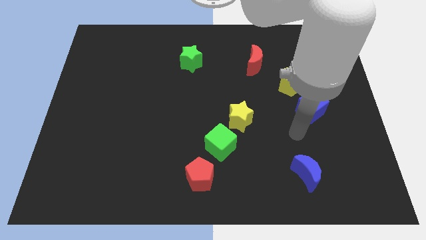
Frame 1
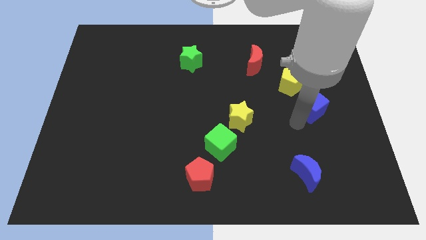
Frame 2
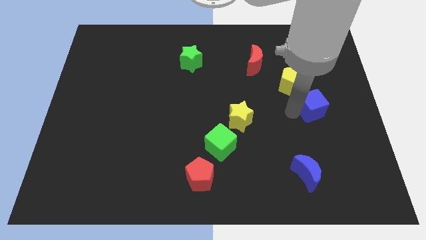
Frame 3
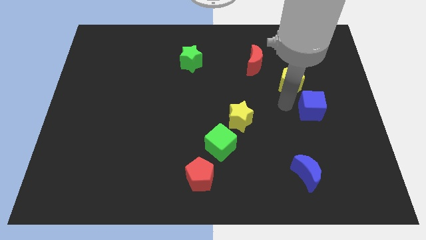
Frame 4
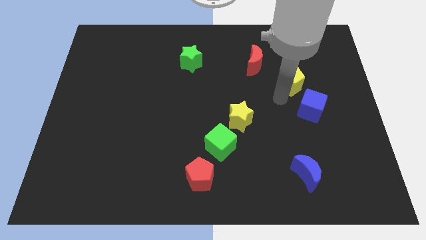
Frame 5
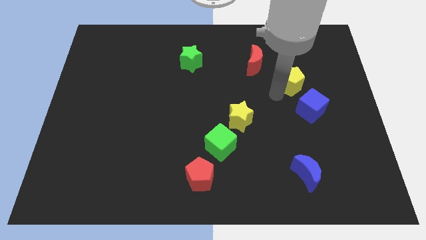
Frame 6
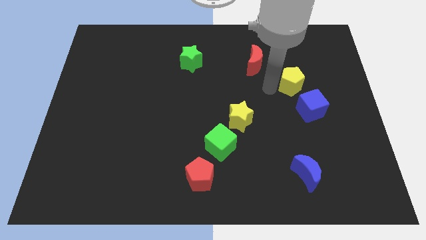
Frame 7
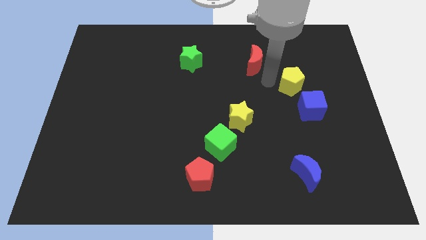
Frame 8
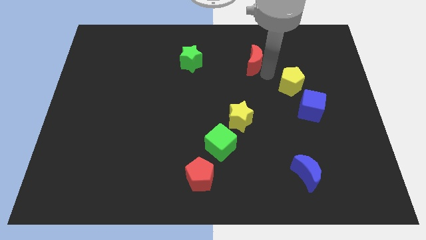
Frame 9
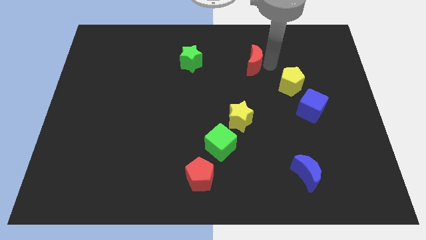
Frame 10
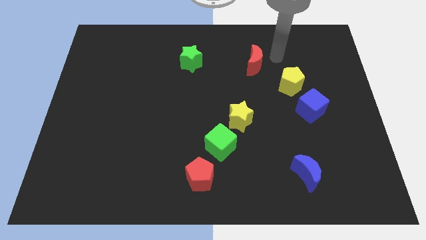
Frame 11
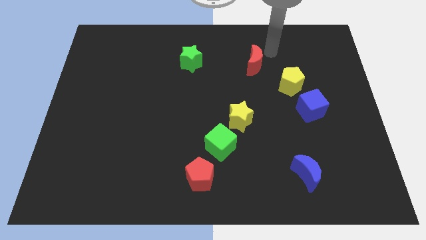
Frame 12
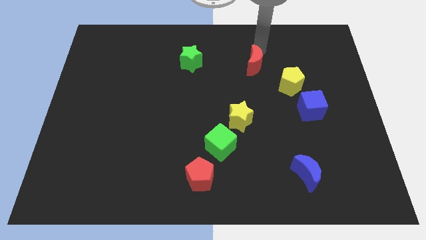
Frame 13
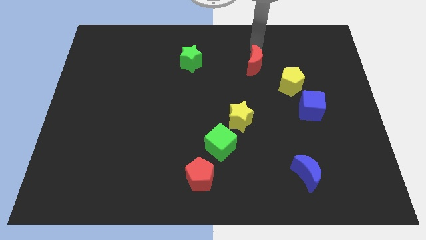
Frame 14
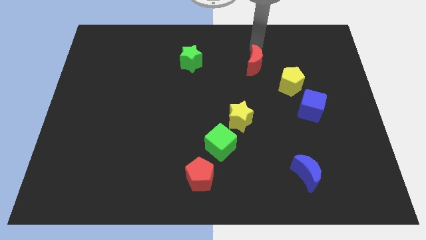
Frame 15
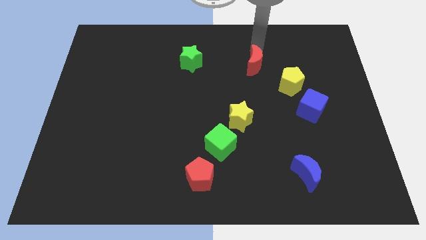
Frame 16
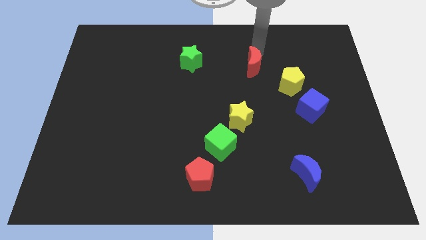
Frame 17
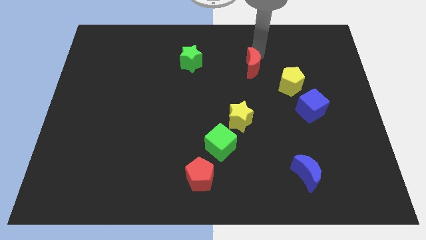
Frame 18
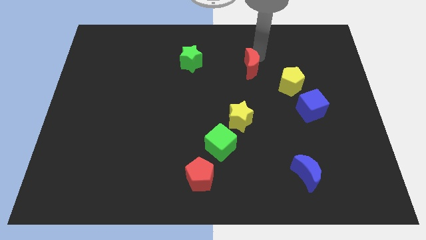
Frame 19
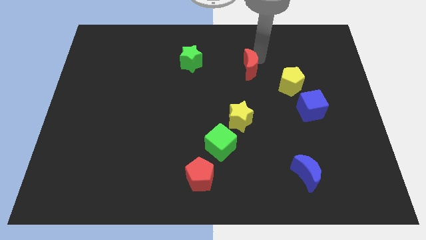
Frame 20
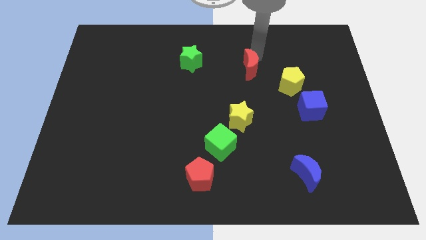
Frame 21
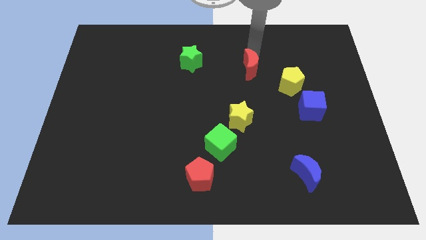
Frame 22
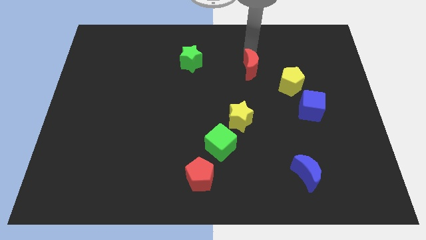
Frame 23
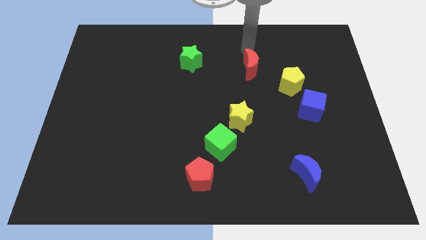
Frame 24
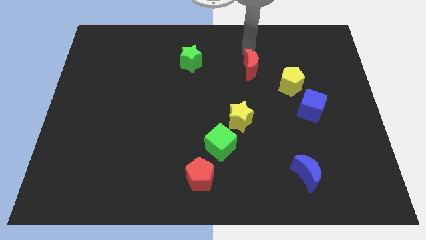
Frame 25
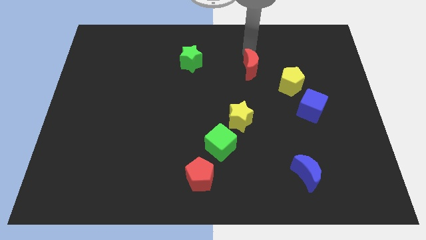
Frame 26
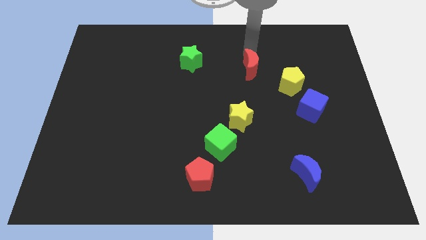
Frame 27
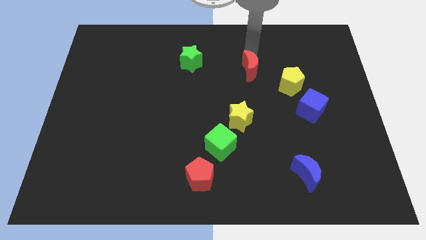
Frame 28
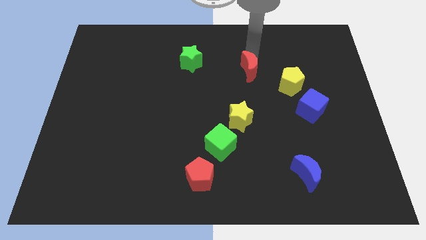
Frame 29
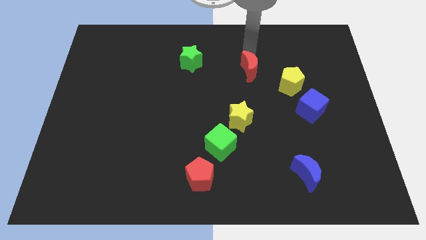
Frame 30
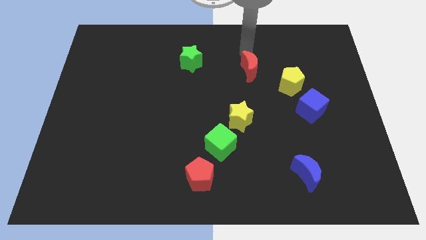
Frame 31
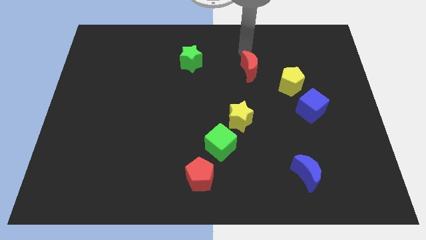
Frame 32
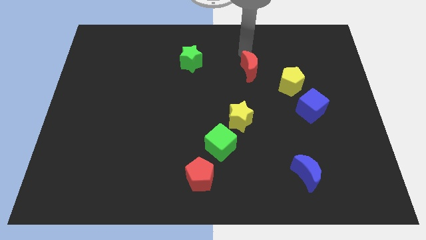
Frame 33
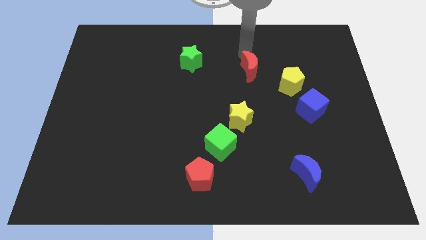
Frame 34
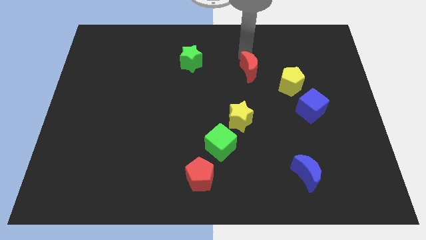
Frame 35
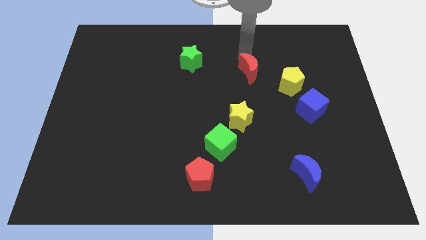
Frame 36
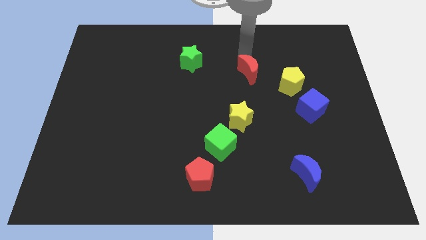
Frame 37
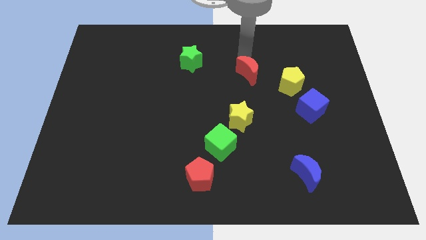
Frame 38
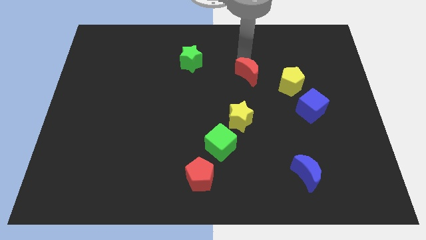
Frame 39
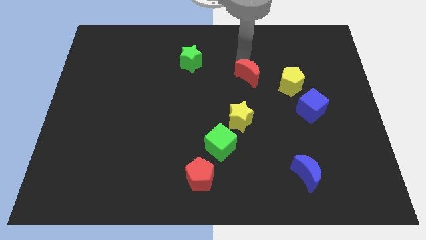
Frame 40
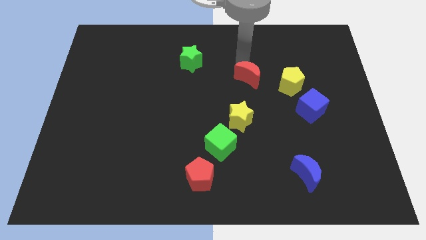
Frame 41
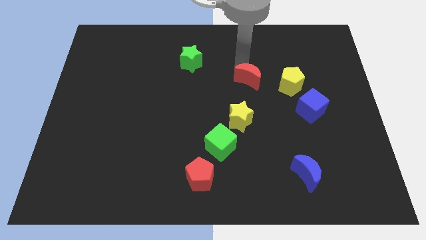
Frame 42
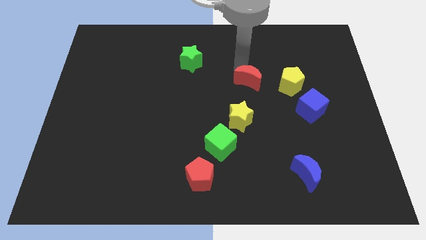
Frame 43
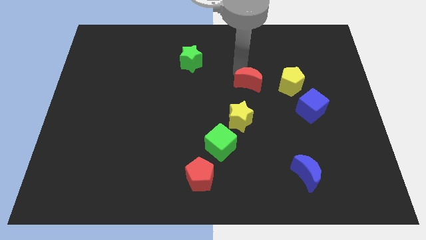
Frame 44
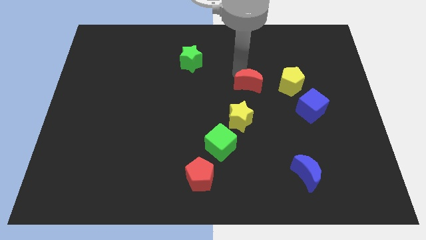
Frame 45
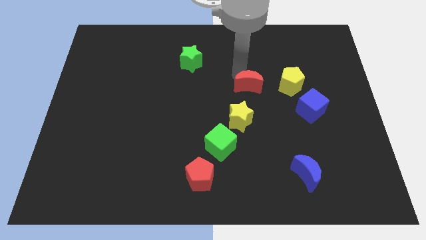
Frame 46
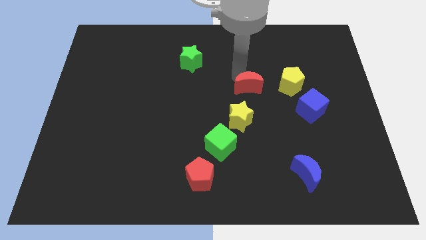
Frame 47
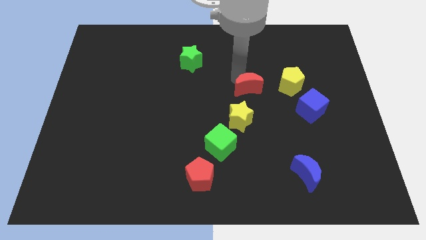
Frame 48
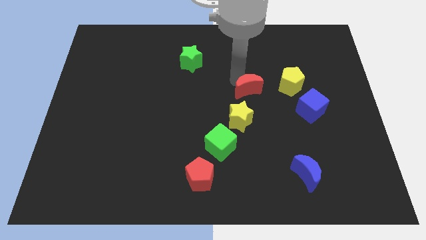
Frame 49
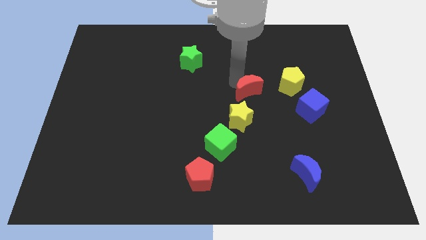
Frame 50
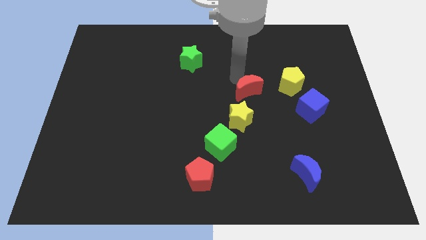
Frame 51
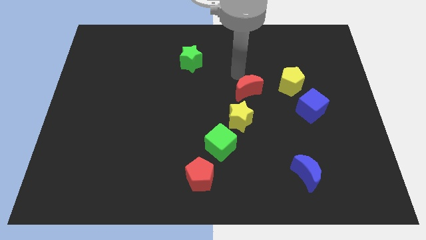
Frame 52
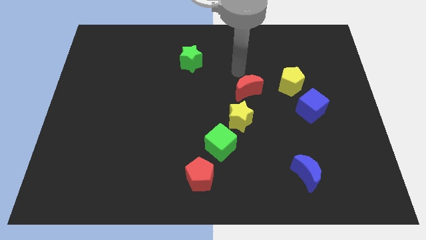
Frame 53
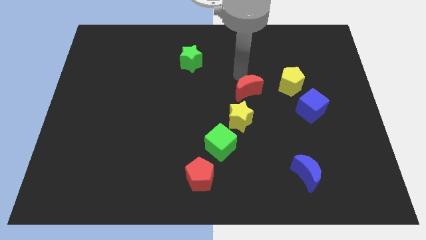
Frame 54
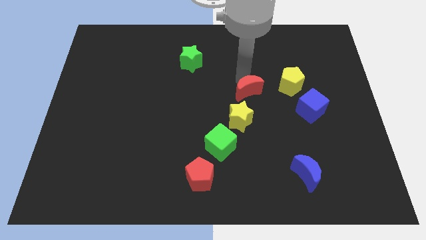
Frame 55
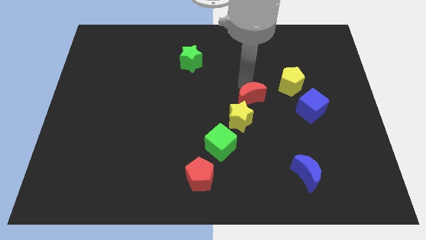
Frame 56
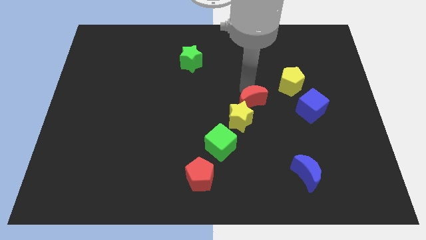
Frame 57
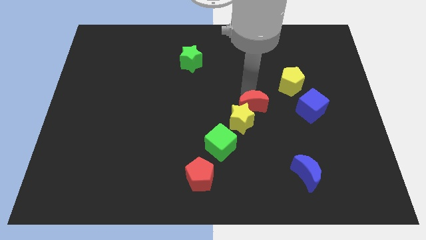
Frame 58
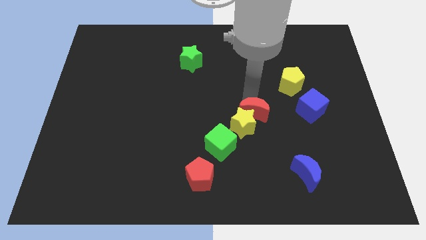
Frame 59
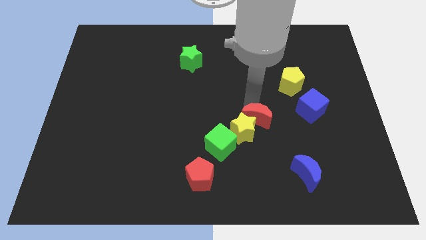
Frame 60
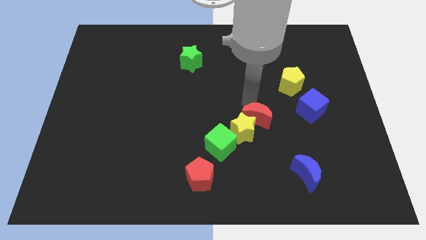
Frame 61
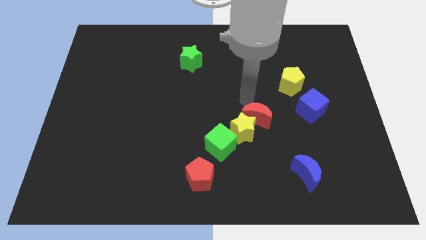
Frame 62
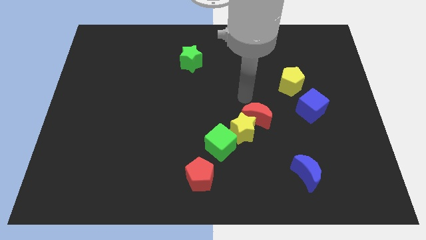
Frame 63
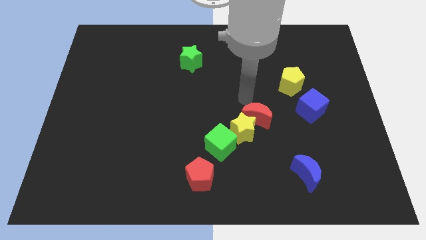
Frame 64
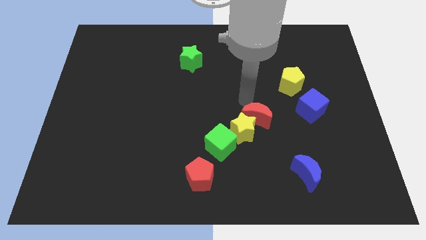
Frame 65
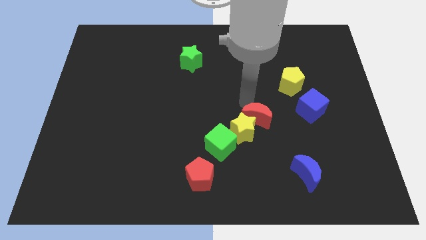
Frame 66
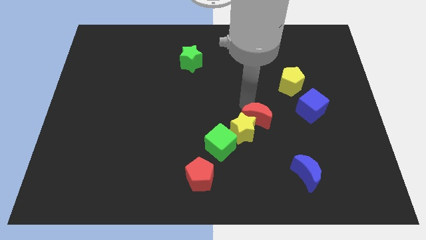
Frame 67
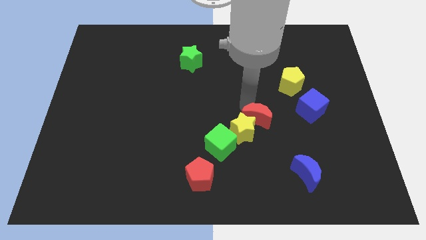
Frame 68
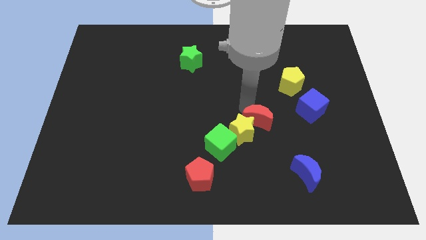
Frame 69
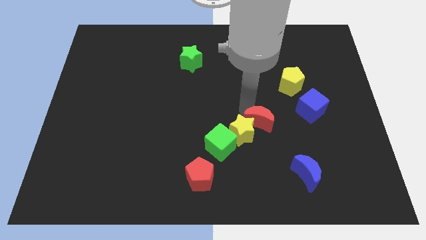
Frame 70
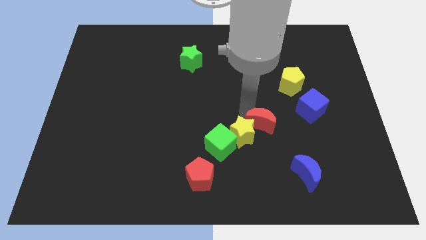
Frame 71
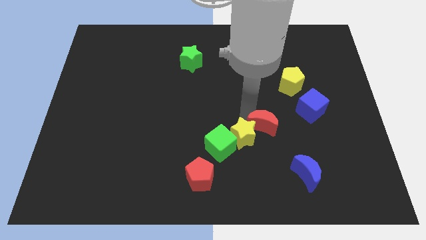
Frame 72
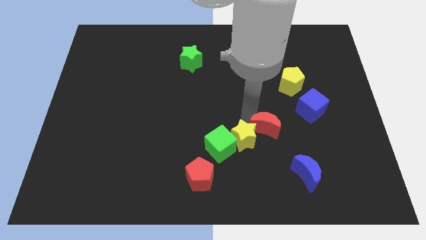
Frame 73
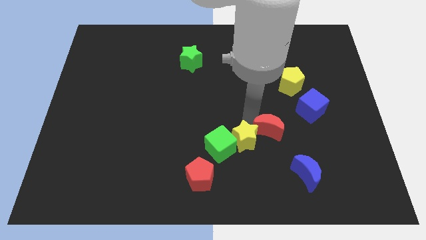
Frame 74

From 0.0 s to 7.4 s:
slide the red moon right of the green cube
